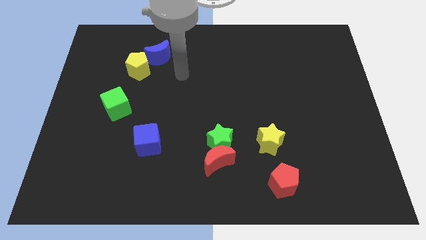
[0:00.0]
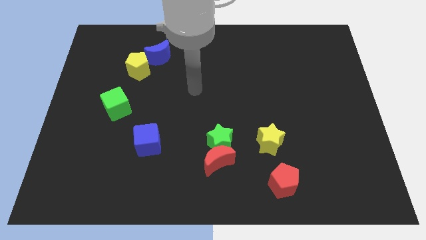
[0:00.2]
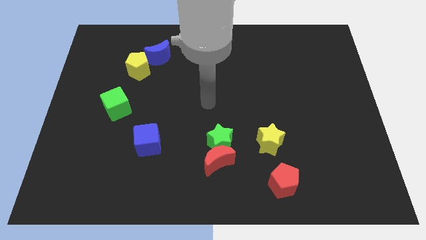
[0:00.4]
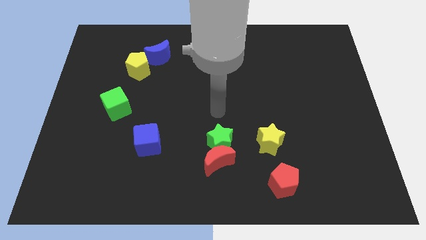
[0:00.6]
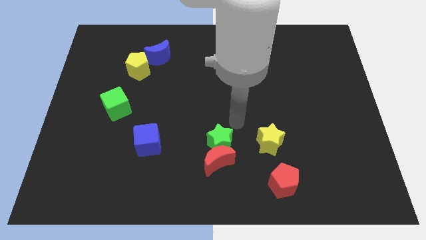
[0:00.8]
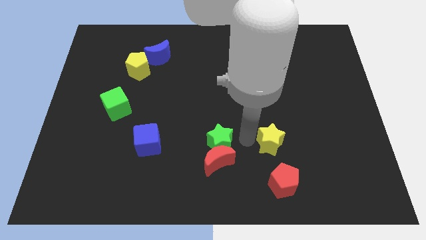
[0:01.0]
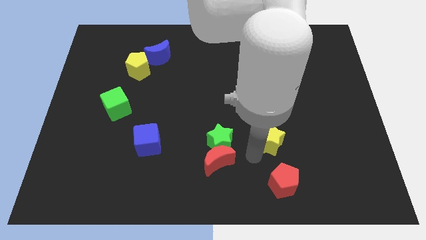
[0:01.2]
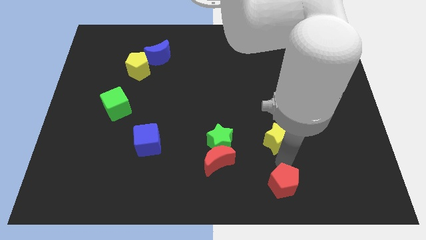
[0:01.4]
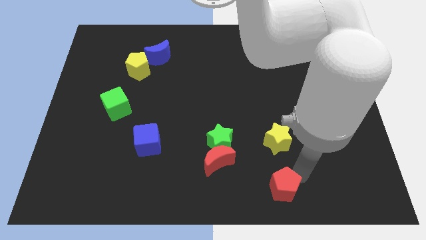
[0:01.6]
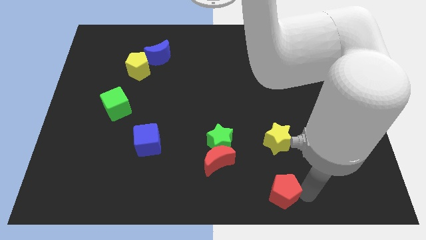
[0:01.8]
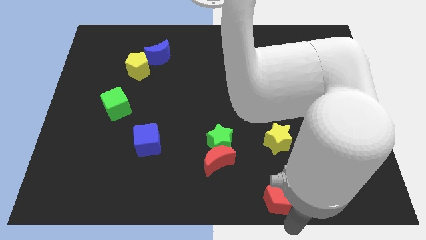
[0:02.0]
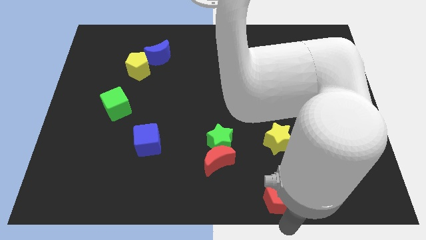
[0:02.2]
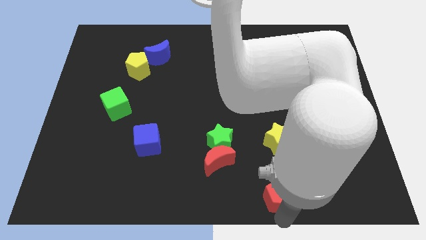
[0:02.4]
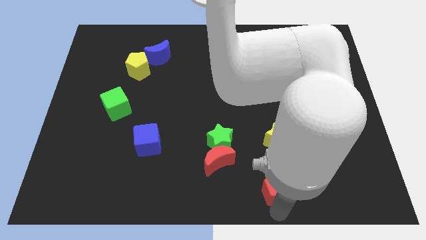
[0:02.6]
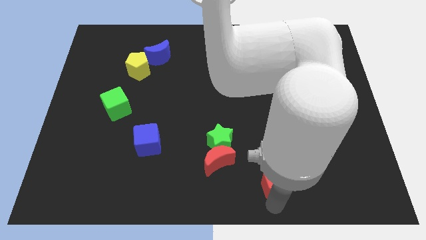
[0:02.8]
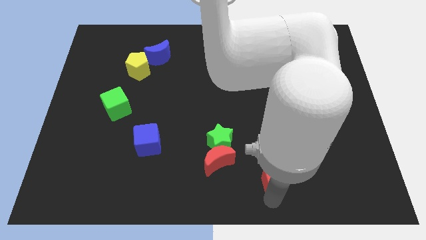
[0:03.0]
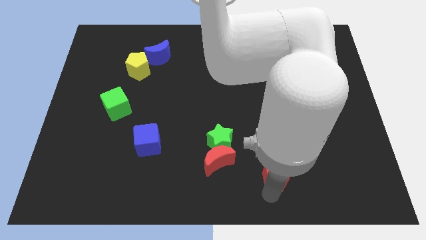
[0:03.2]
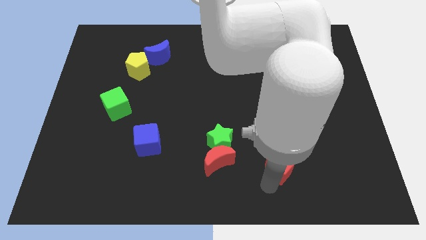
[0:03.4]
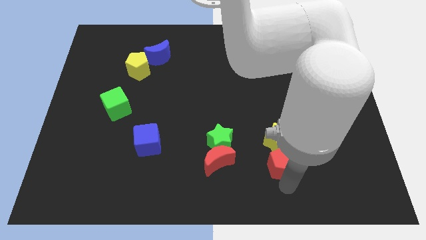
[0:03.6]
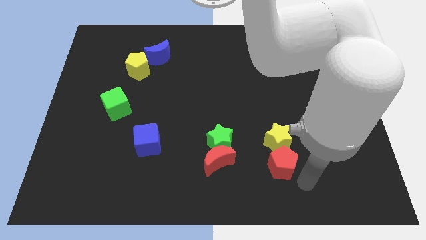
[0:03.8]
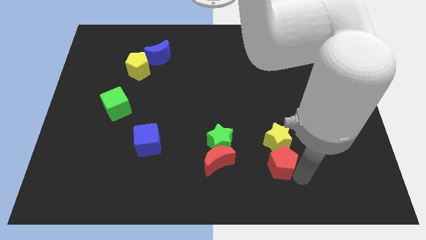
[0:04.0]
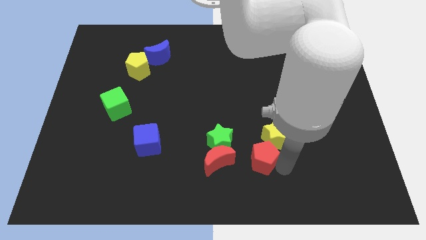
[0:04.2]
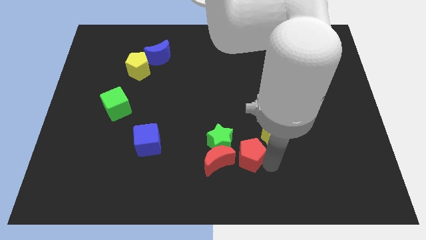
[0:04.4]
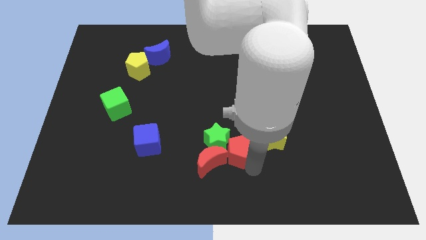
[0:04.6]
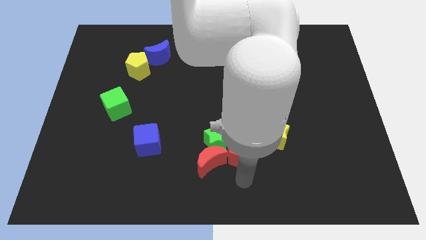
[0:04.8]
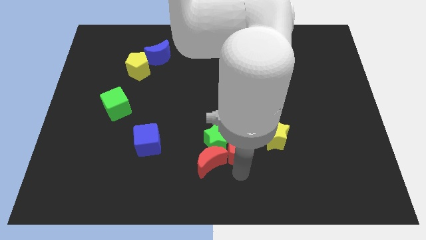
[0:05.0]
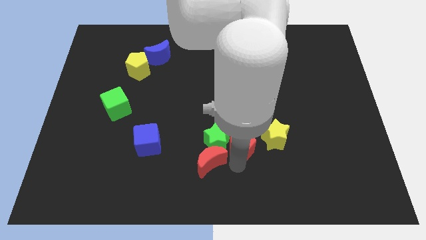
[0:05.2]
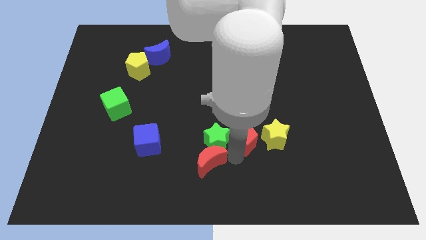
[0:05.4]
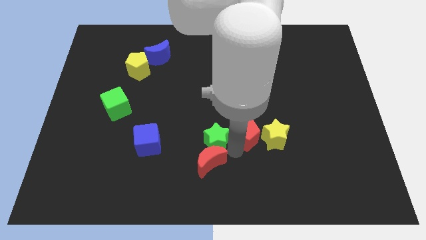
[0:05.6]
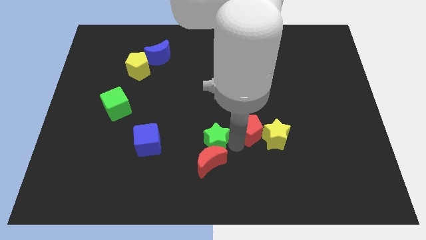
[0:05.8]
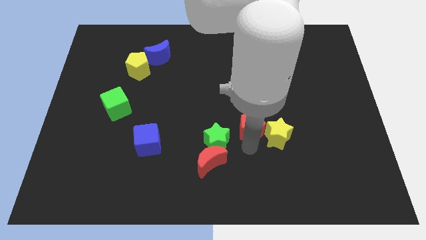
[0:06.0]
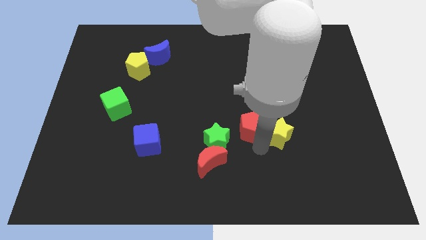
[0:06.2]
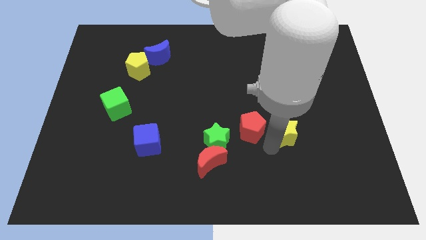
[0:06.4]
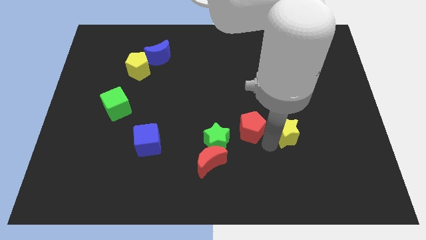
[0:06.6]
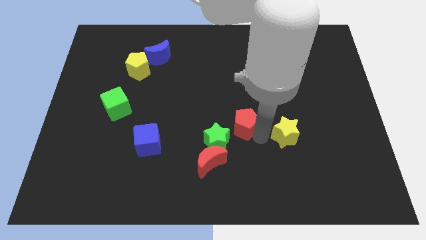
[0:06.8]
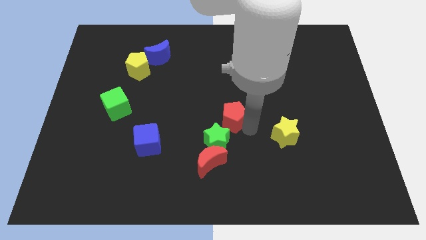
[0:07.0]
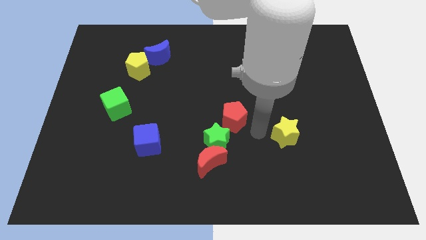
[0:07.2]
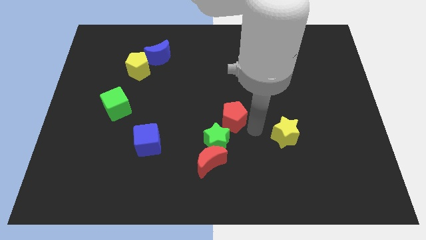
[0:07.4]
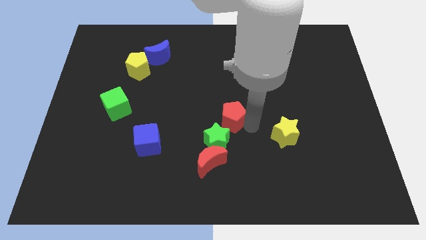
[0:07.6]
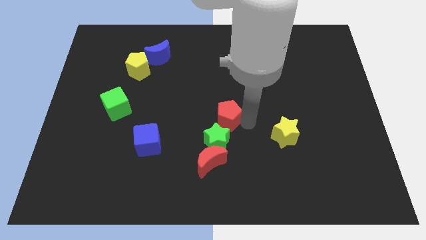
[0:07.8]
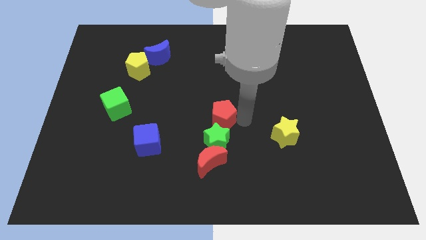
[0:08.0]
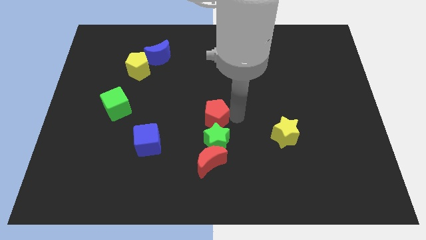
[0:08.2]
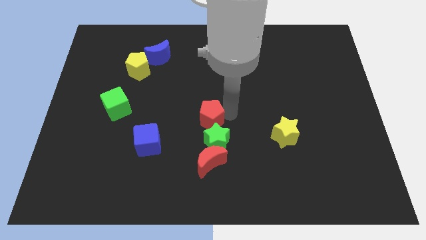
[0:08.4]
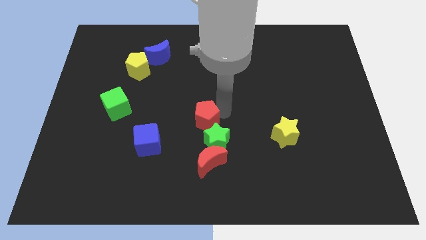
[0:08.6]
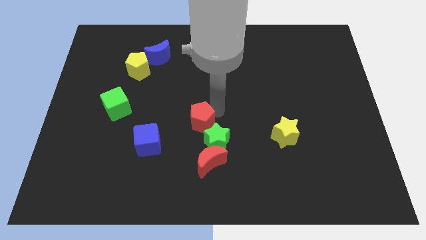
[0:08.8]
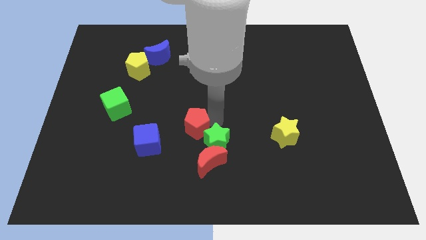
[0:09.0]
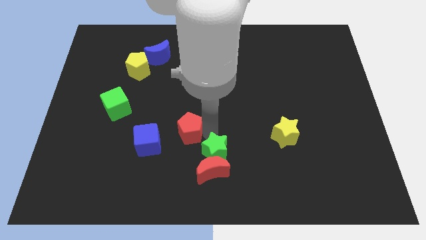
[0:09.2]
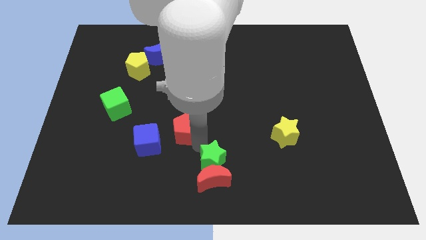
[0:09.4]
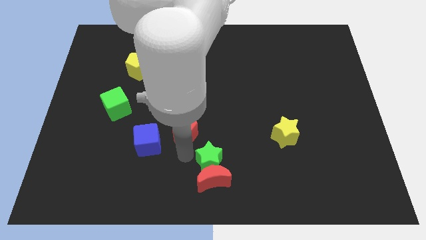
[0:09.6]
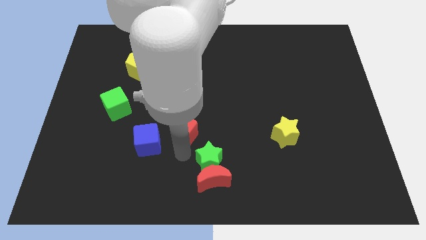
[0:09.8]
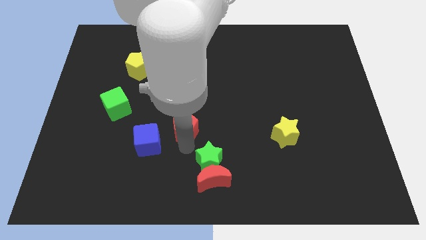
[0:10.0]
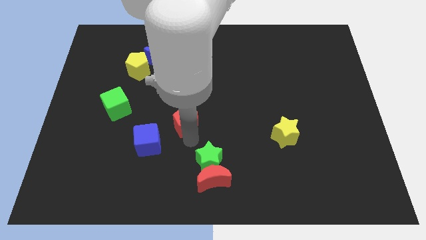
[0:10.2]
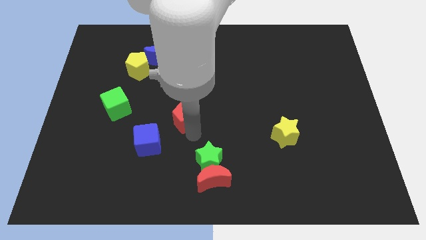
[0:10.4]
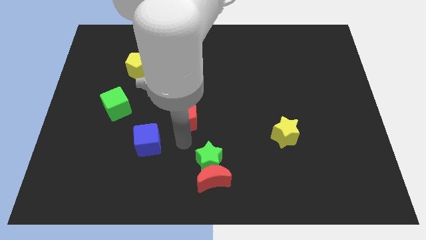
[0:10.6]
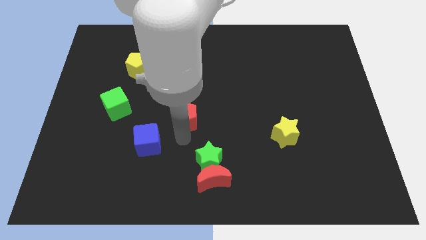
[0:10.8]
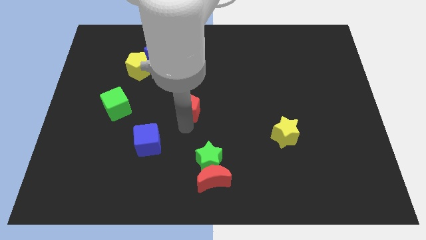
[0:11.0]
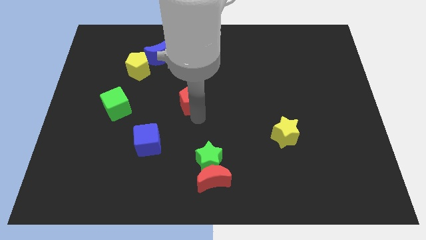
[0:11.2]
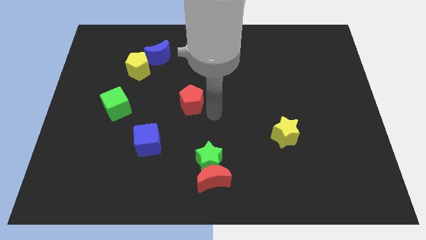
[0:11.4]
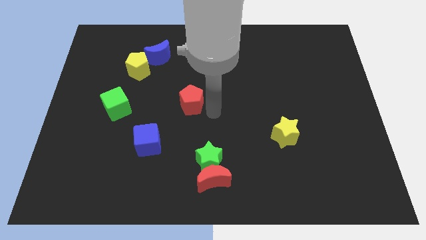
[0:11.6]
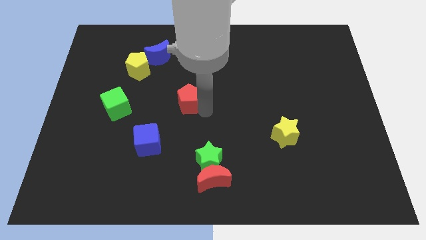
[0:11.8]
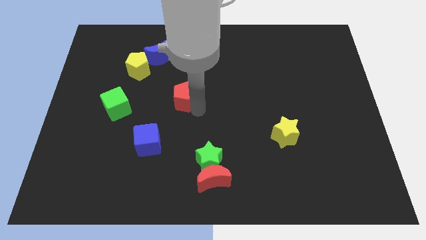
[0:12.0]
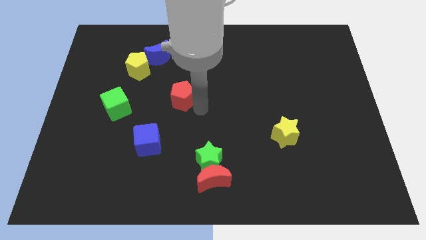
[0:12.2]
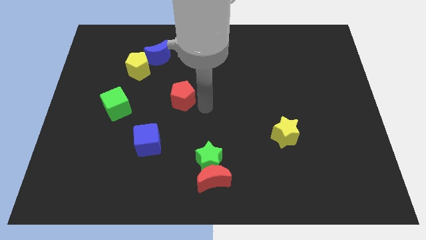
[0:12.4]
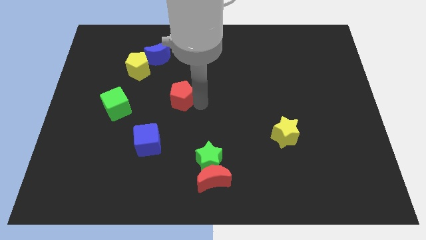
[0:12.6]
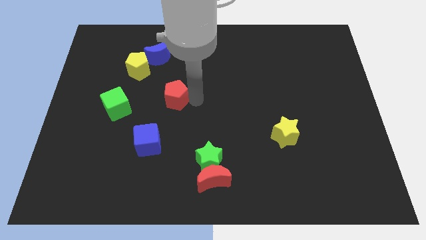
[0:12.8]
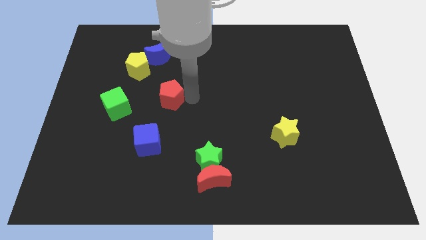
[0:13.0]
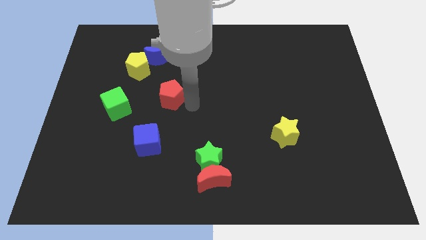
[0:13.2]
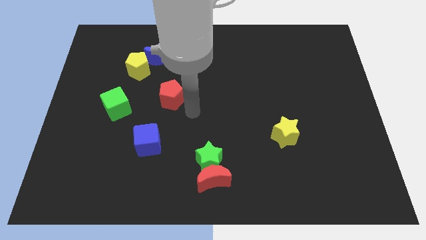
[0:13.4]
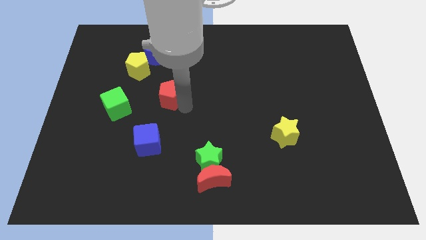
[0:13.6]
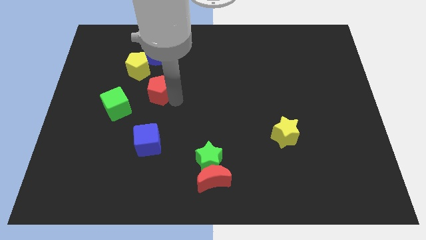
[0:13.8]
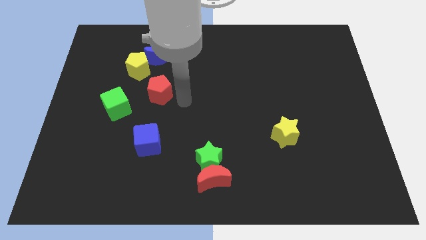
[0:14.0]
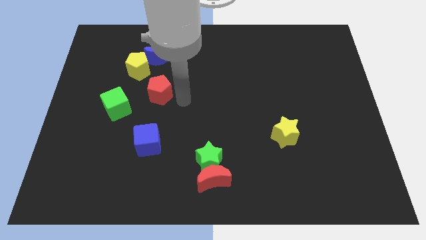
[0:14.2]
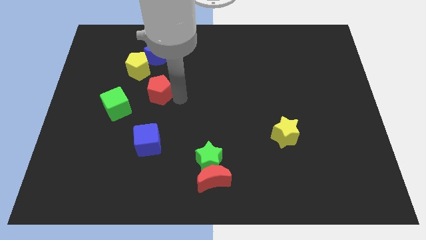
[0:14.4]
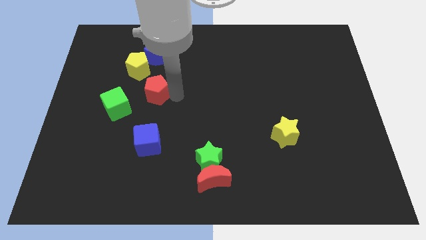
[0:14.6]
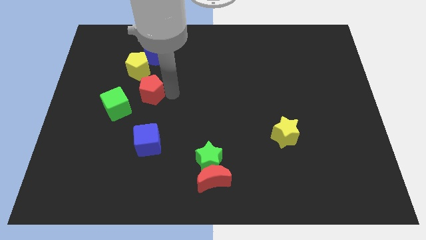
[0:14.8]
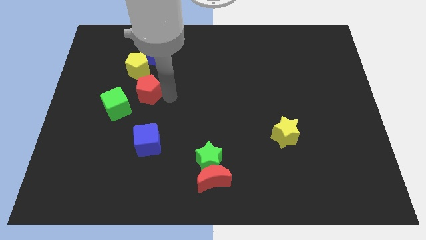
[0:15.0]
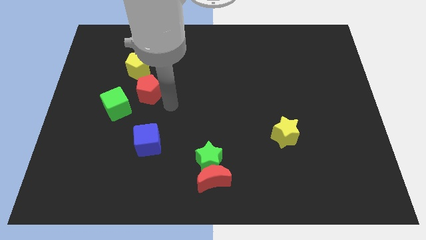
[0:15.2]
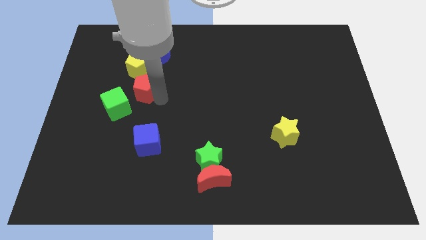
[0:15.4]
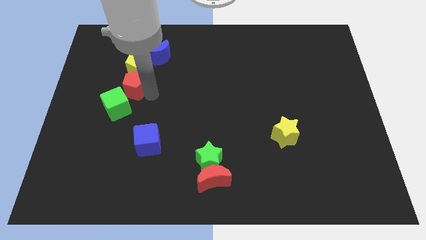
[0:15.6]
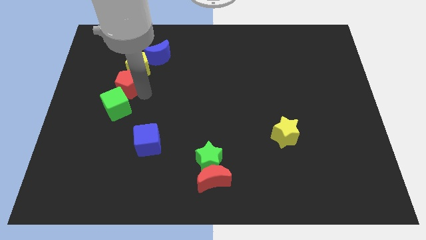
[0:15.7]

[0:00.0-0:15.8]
slide the red pentagon diagonally down and to the left of the blue moon
